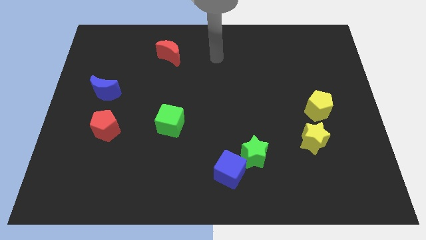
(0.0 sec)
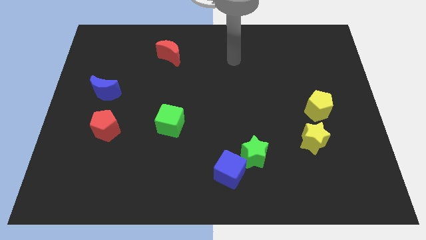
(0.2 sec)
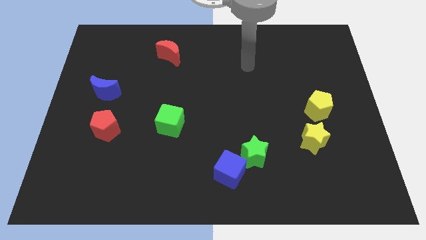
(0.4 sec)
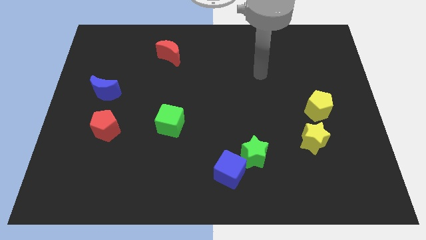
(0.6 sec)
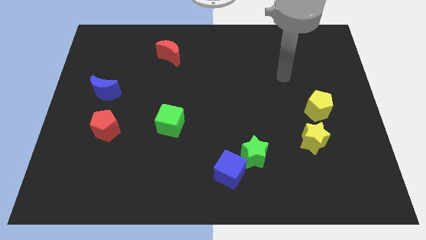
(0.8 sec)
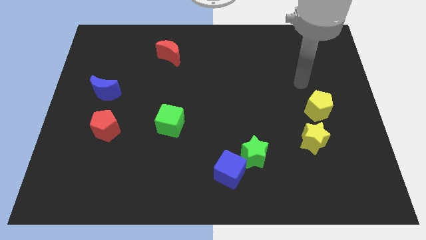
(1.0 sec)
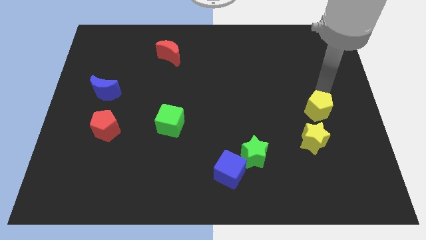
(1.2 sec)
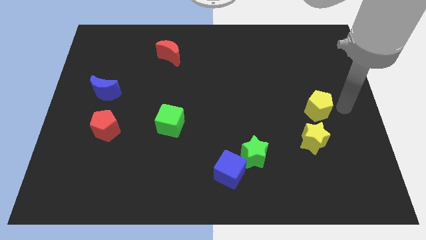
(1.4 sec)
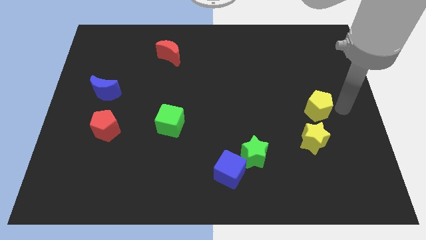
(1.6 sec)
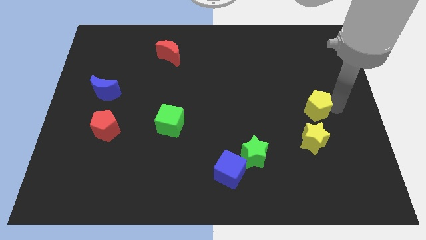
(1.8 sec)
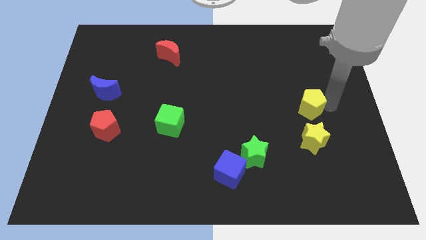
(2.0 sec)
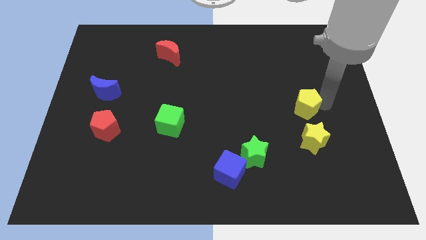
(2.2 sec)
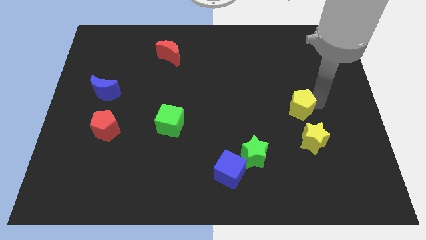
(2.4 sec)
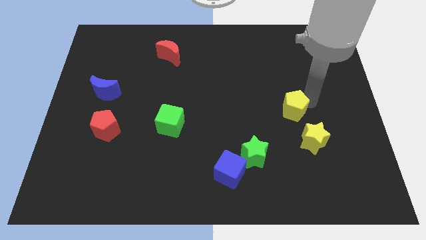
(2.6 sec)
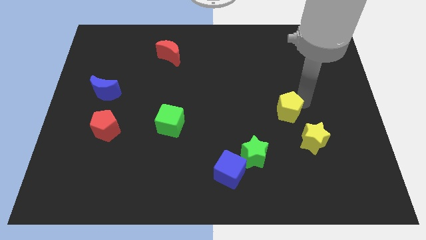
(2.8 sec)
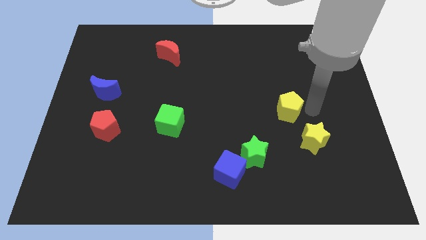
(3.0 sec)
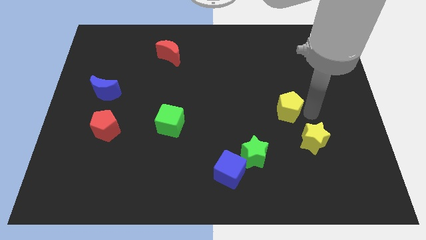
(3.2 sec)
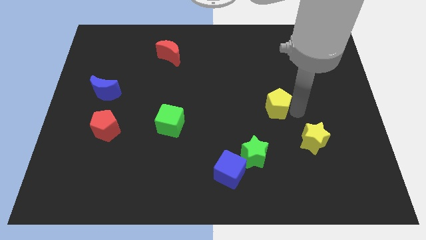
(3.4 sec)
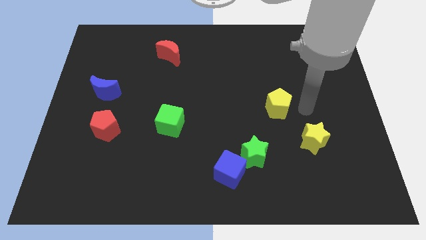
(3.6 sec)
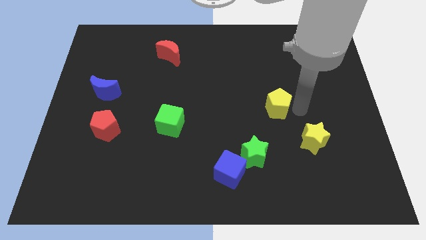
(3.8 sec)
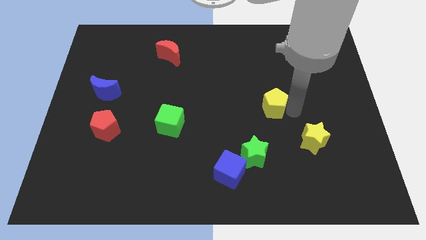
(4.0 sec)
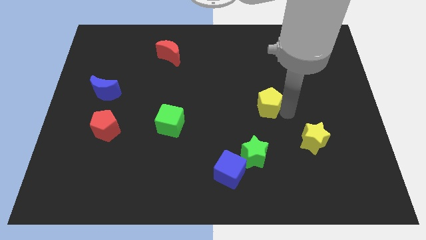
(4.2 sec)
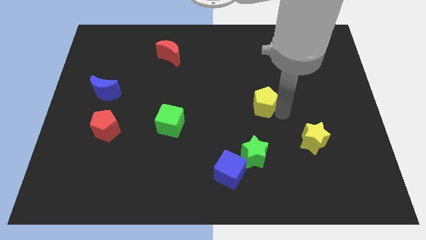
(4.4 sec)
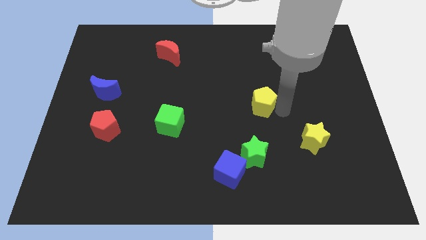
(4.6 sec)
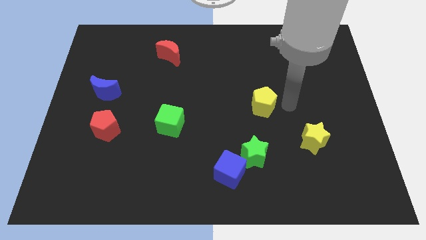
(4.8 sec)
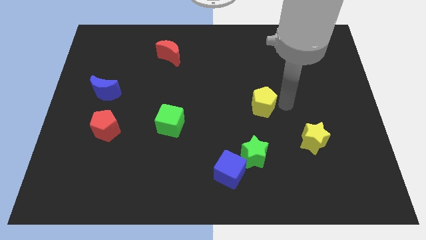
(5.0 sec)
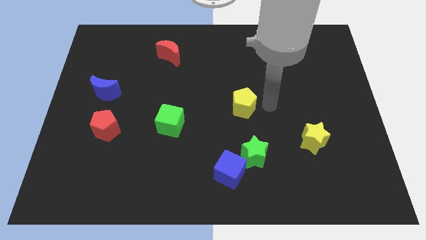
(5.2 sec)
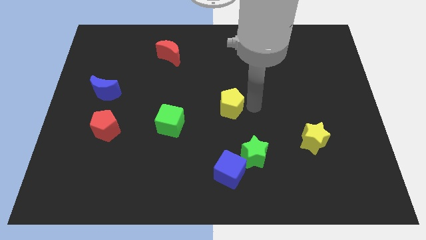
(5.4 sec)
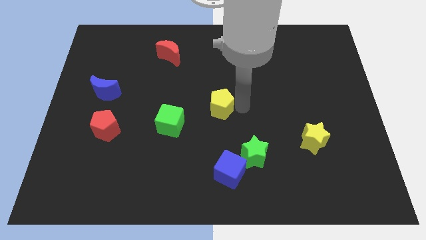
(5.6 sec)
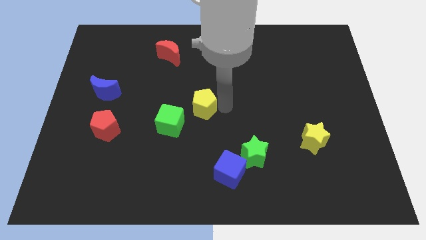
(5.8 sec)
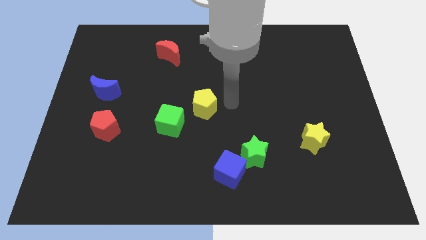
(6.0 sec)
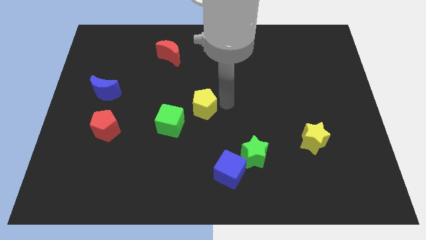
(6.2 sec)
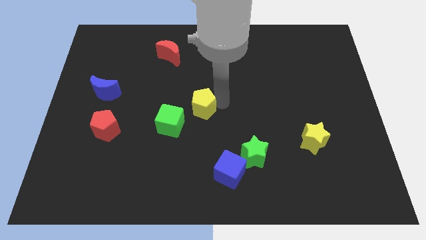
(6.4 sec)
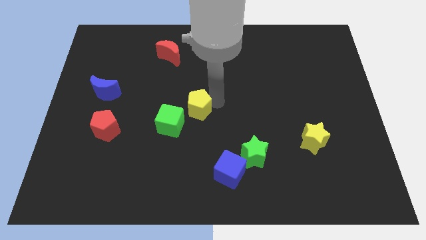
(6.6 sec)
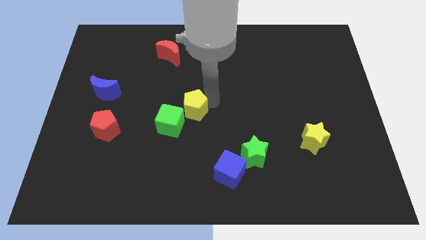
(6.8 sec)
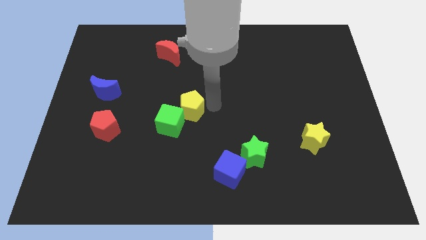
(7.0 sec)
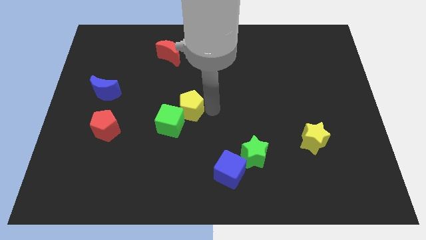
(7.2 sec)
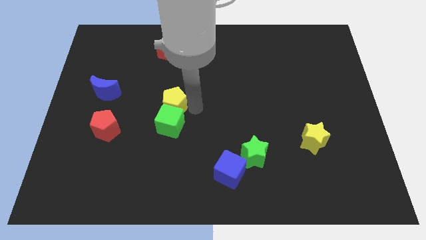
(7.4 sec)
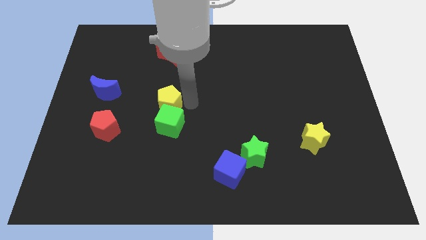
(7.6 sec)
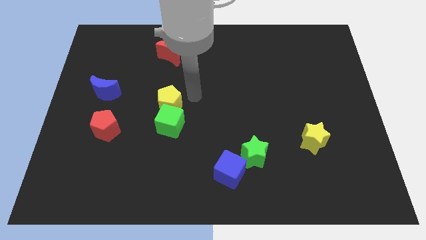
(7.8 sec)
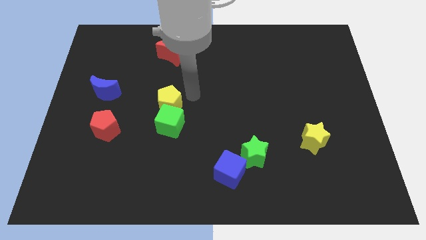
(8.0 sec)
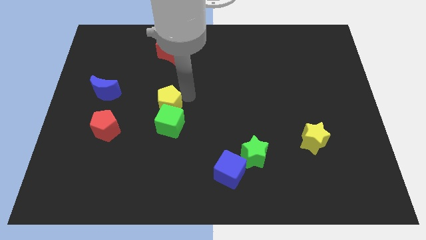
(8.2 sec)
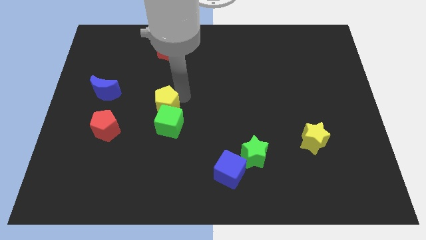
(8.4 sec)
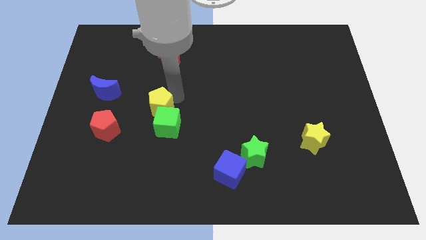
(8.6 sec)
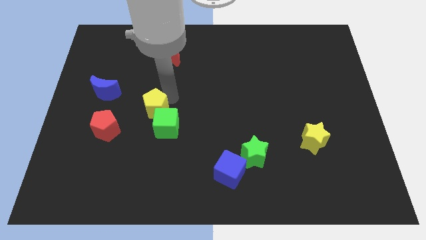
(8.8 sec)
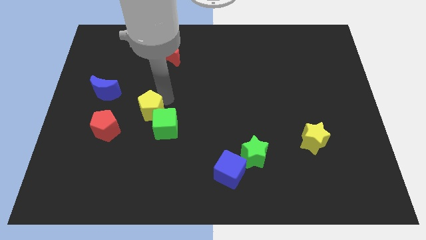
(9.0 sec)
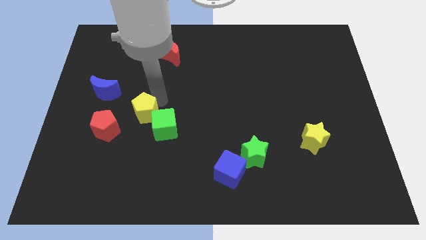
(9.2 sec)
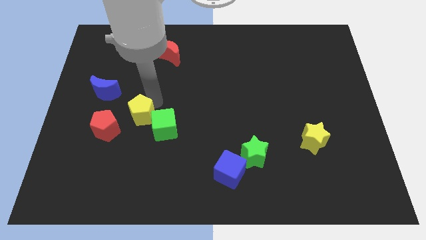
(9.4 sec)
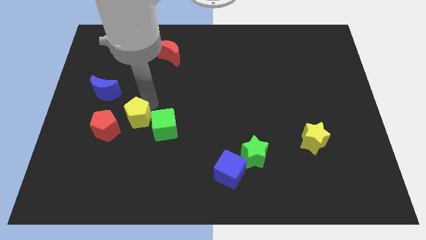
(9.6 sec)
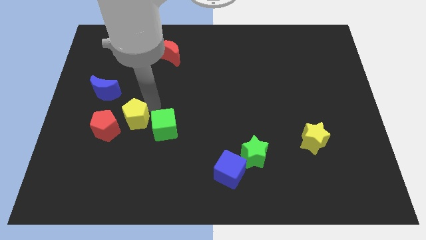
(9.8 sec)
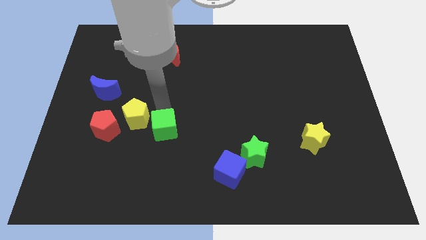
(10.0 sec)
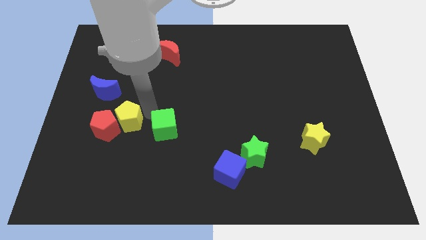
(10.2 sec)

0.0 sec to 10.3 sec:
put the yellow pentagon close to the red pentagon

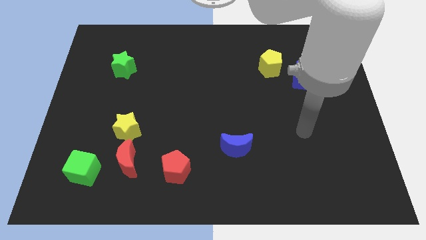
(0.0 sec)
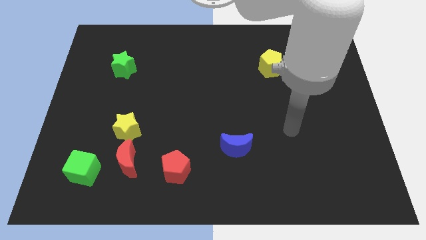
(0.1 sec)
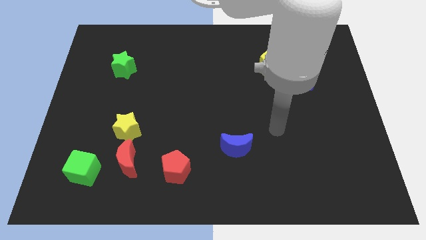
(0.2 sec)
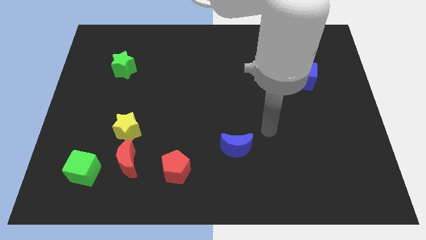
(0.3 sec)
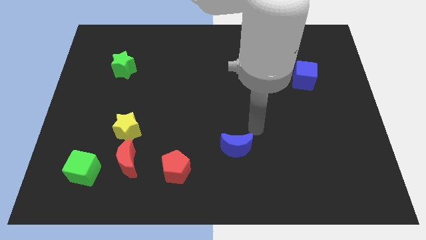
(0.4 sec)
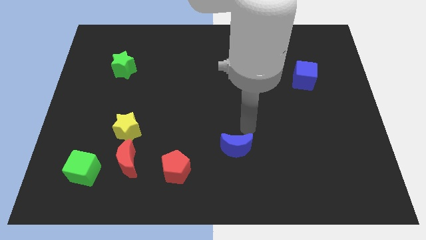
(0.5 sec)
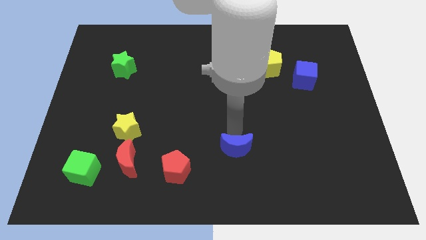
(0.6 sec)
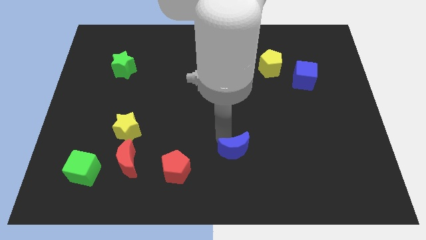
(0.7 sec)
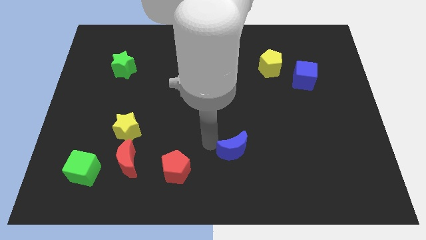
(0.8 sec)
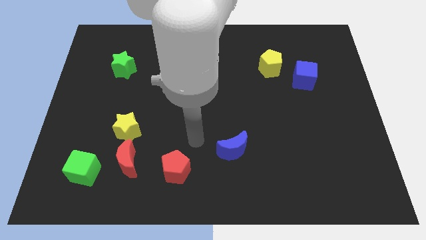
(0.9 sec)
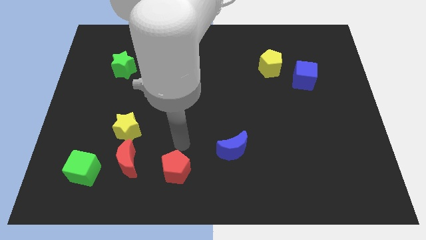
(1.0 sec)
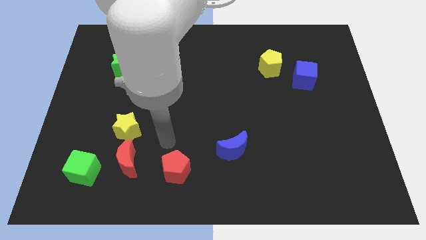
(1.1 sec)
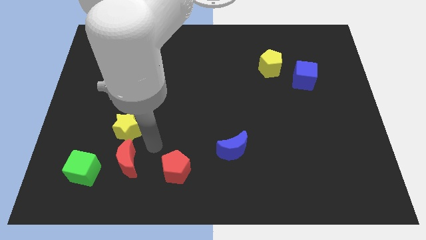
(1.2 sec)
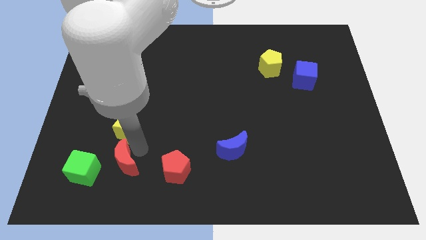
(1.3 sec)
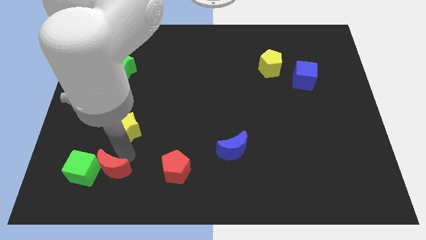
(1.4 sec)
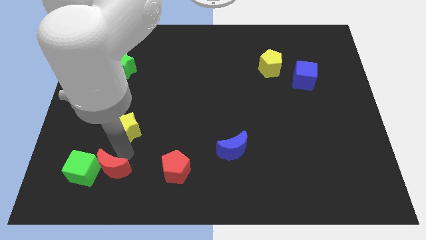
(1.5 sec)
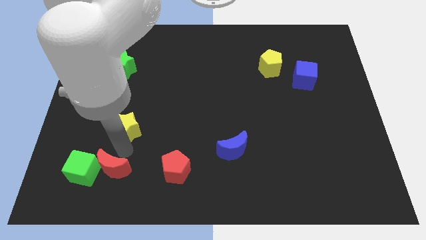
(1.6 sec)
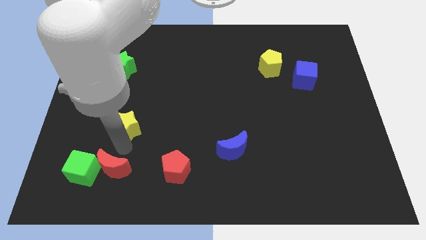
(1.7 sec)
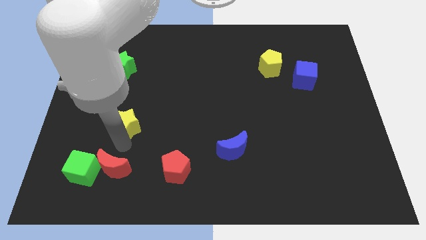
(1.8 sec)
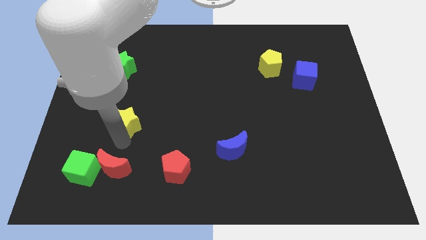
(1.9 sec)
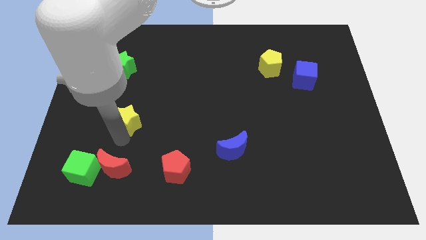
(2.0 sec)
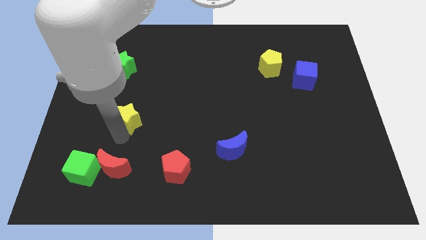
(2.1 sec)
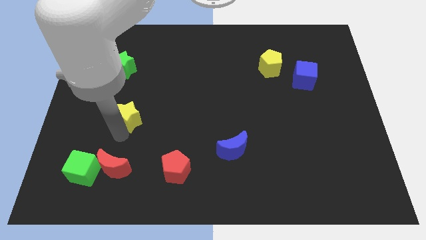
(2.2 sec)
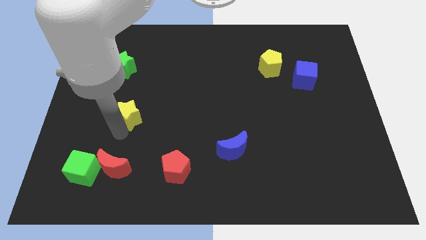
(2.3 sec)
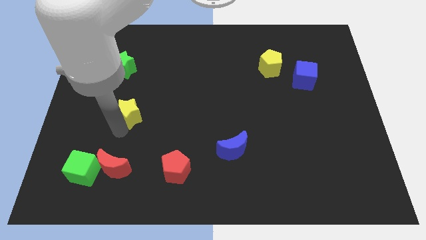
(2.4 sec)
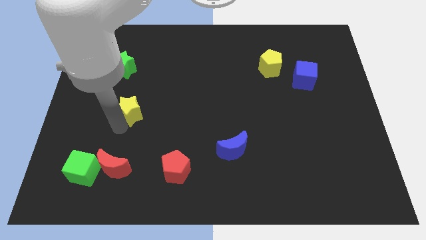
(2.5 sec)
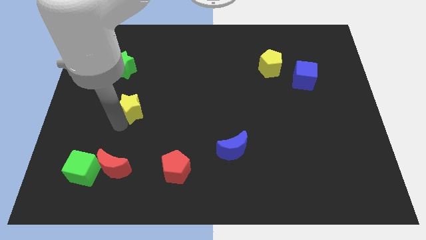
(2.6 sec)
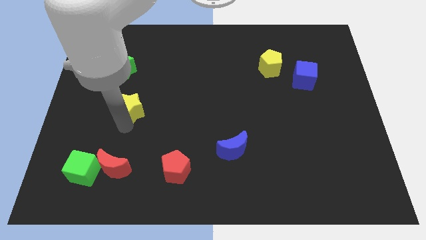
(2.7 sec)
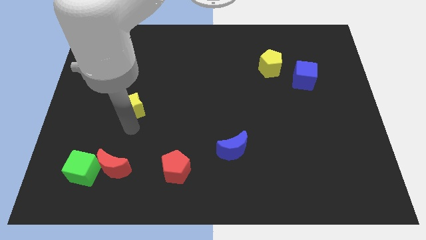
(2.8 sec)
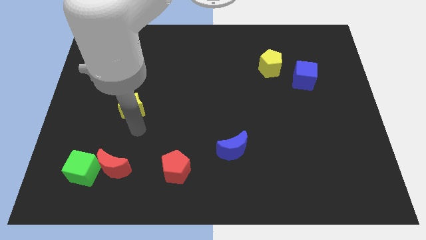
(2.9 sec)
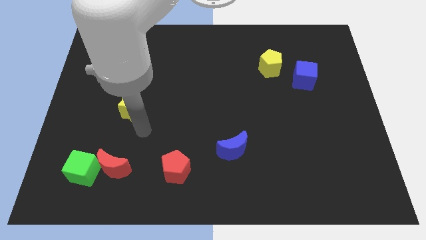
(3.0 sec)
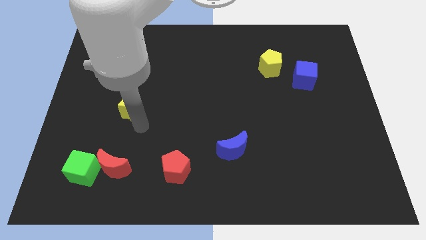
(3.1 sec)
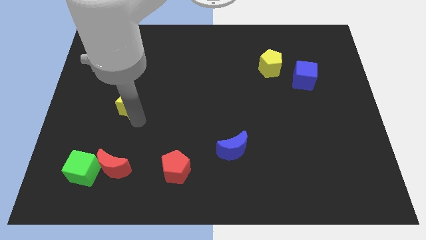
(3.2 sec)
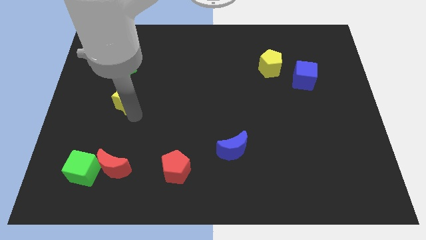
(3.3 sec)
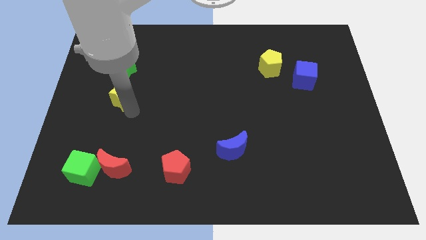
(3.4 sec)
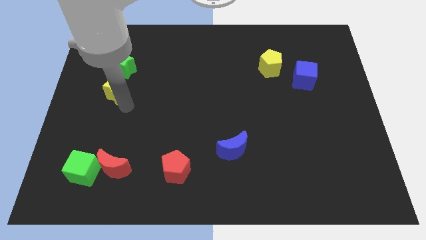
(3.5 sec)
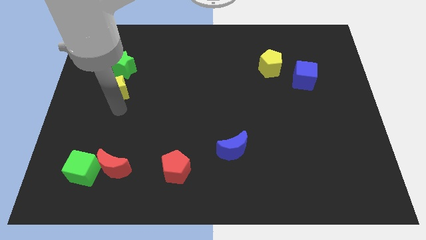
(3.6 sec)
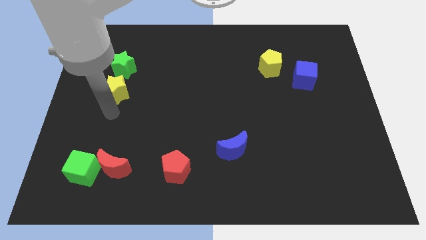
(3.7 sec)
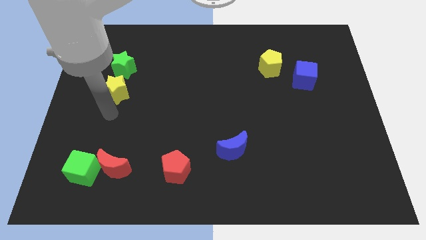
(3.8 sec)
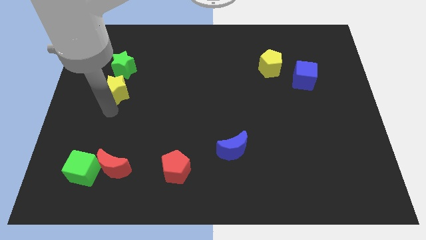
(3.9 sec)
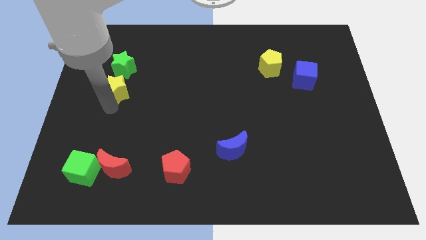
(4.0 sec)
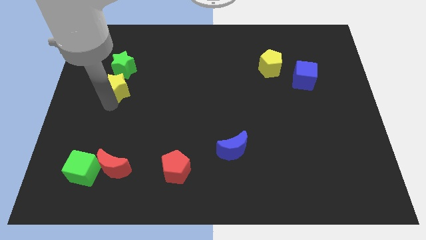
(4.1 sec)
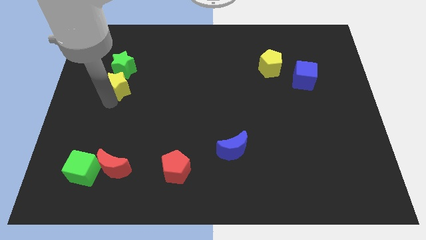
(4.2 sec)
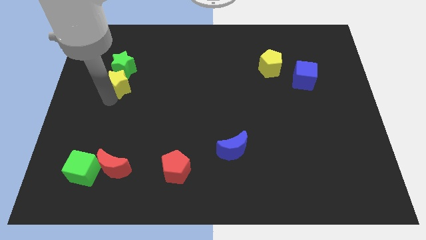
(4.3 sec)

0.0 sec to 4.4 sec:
move the yellow star next to the green star
